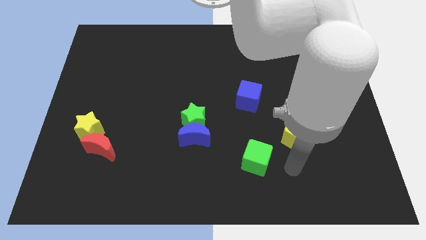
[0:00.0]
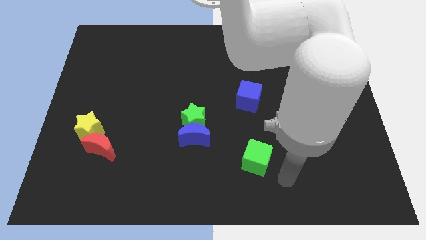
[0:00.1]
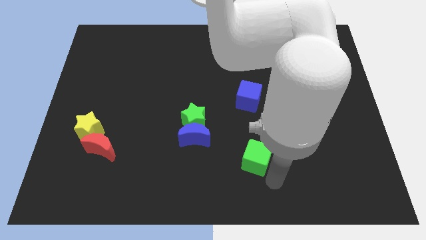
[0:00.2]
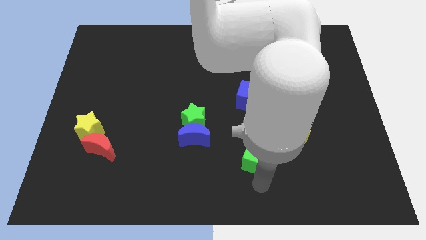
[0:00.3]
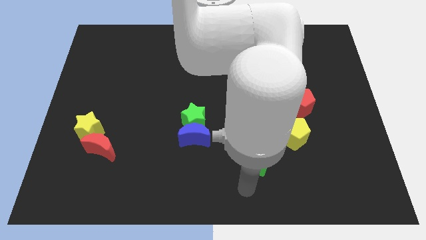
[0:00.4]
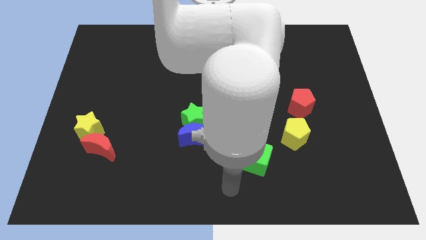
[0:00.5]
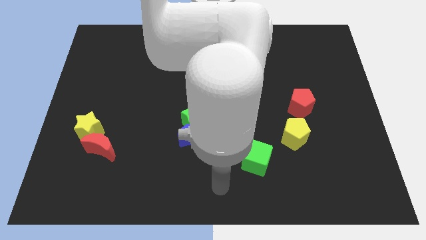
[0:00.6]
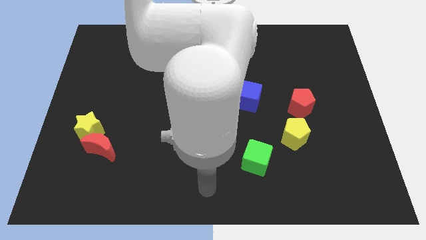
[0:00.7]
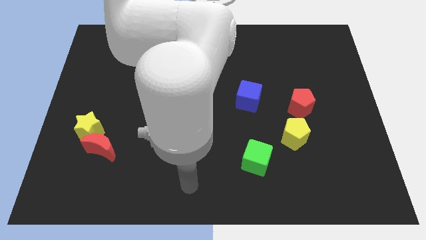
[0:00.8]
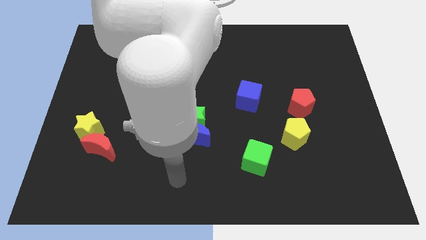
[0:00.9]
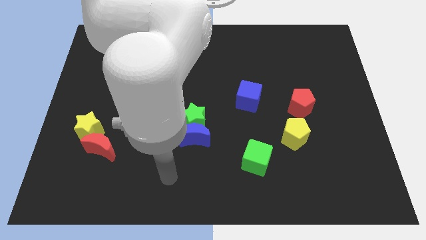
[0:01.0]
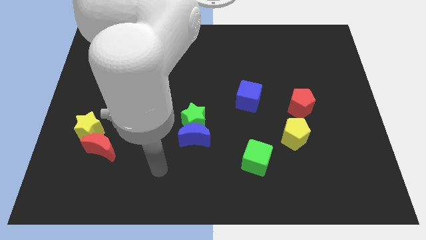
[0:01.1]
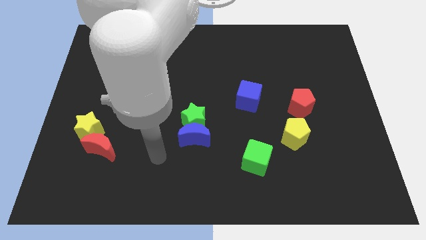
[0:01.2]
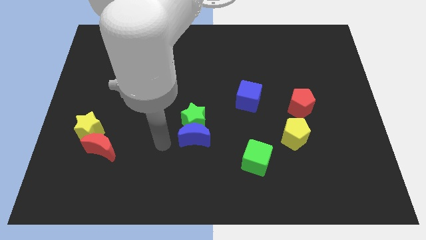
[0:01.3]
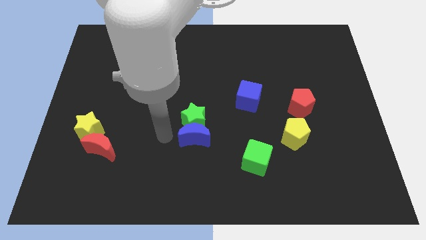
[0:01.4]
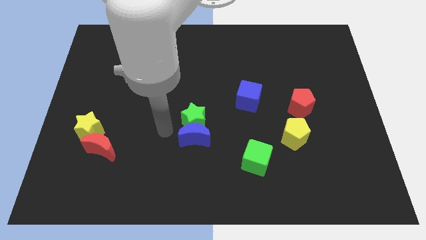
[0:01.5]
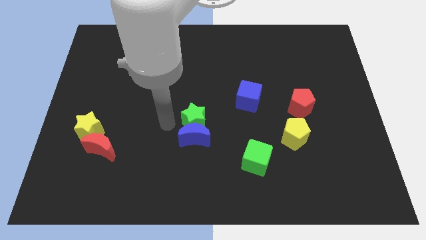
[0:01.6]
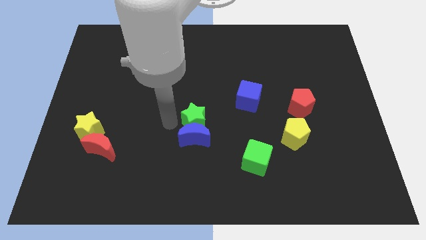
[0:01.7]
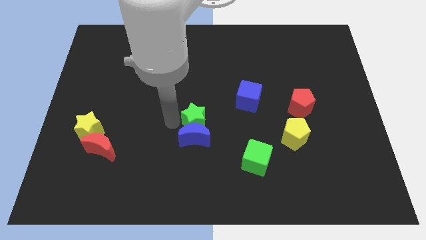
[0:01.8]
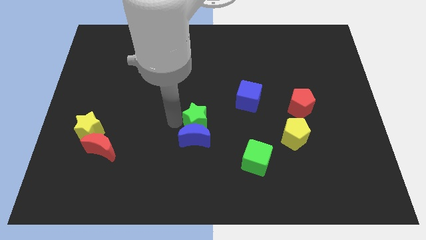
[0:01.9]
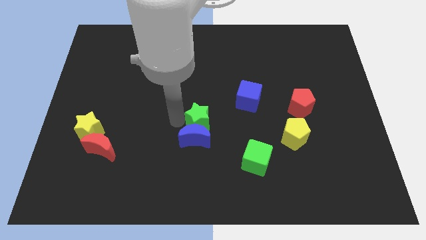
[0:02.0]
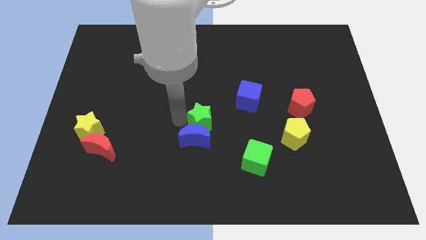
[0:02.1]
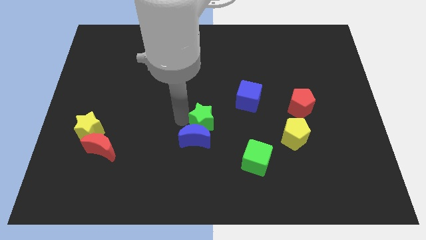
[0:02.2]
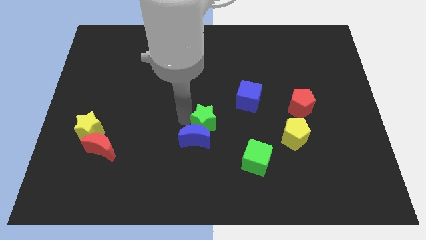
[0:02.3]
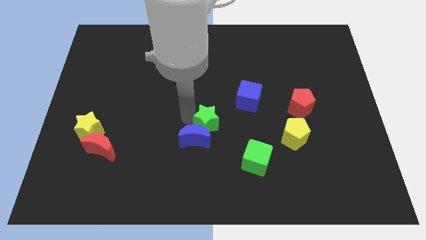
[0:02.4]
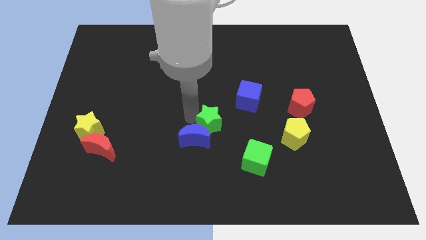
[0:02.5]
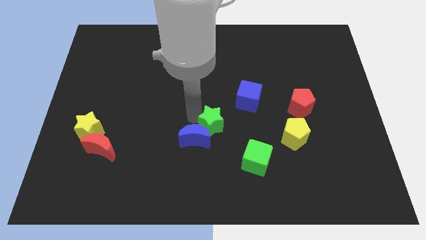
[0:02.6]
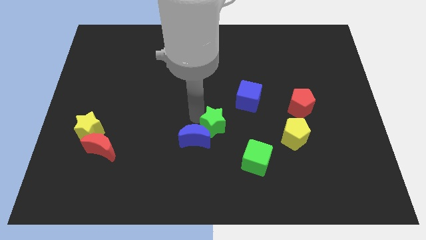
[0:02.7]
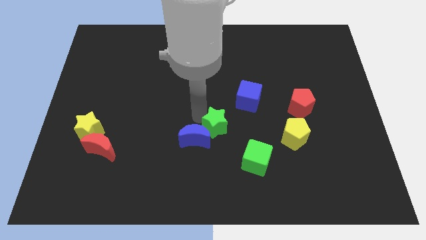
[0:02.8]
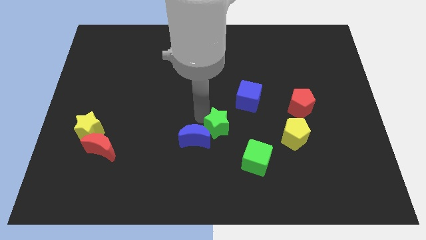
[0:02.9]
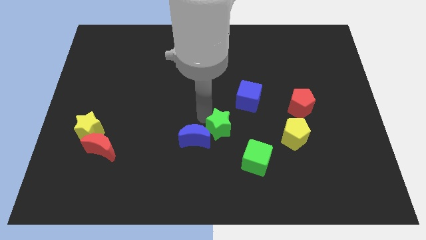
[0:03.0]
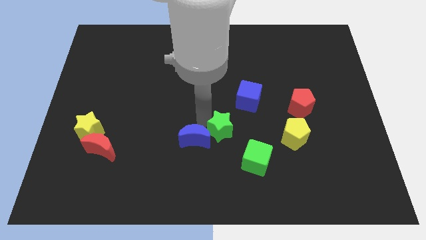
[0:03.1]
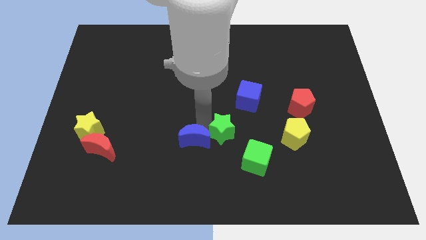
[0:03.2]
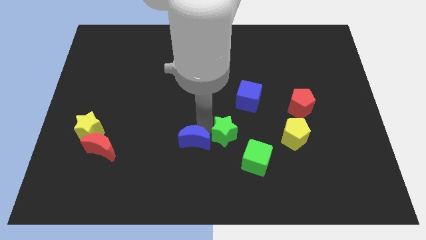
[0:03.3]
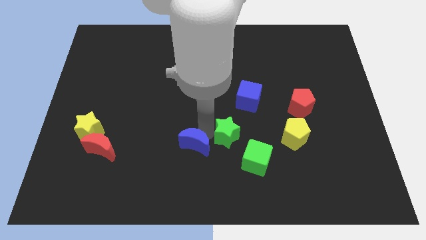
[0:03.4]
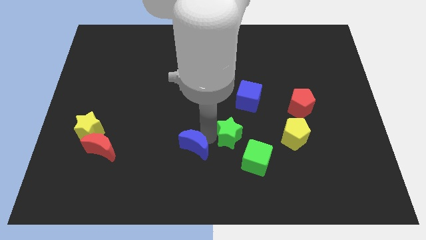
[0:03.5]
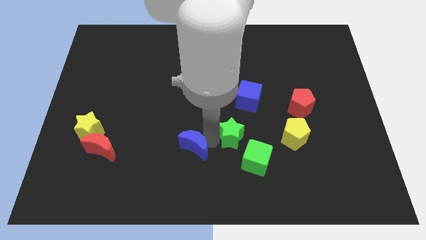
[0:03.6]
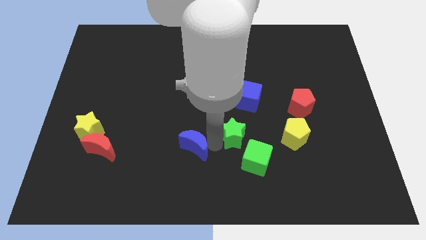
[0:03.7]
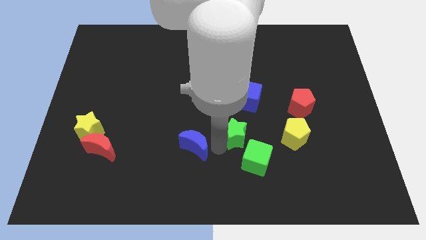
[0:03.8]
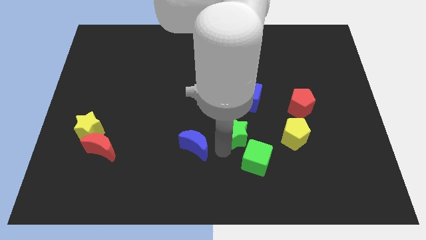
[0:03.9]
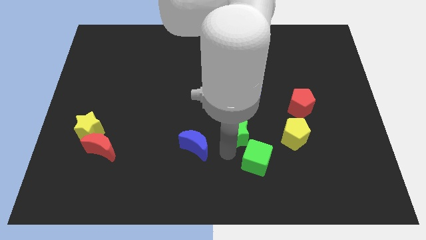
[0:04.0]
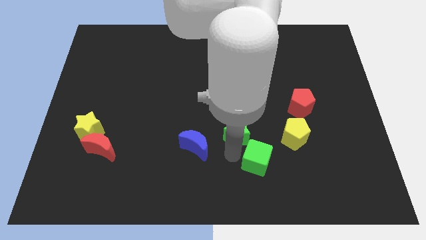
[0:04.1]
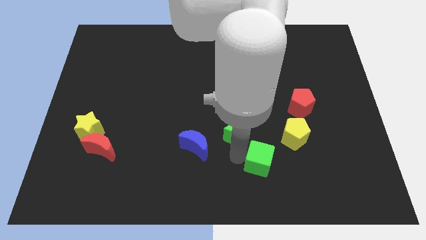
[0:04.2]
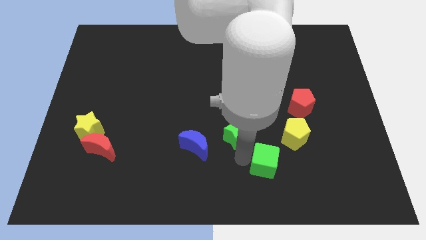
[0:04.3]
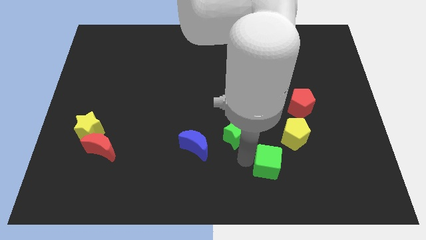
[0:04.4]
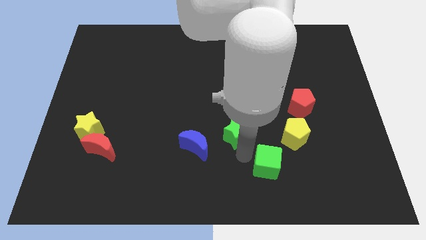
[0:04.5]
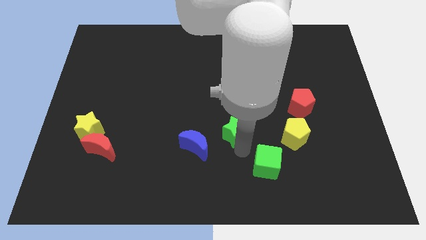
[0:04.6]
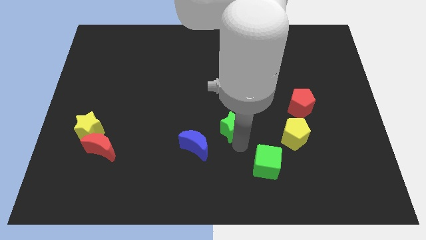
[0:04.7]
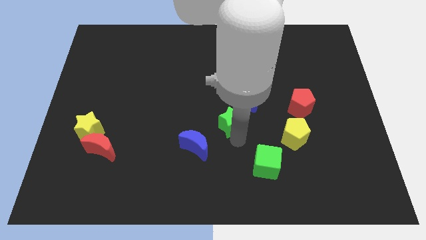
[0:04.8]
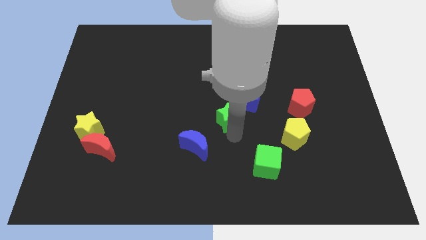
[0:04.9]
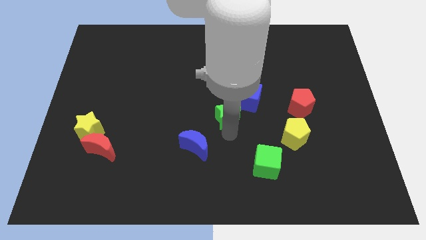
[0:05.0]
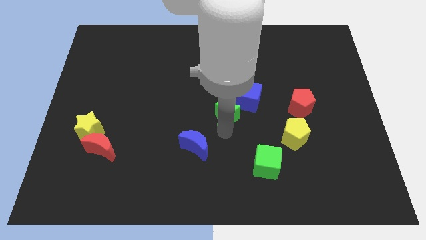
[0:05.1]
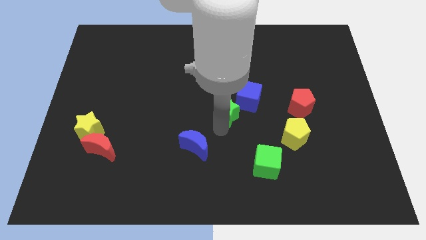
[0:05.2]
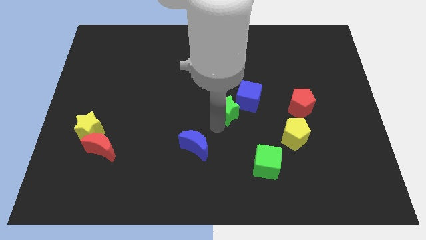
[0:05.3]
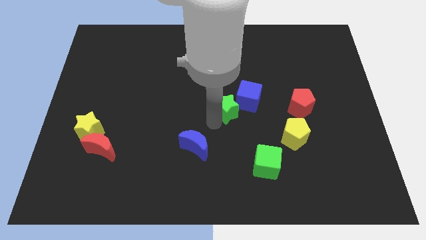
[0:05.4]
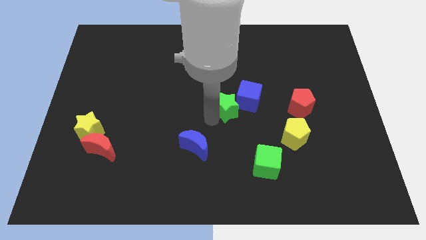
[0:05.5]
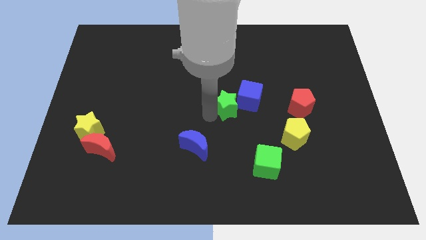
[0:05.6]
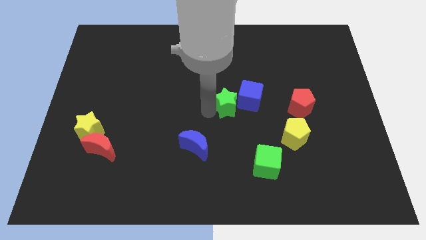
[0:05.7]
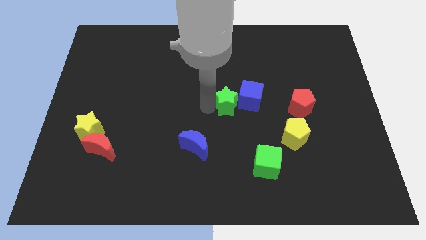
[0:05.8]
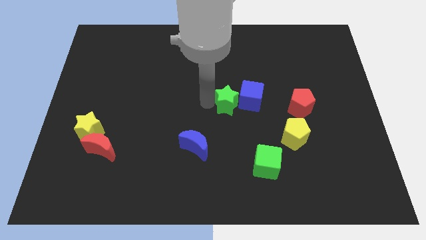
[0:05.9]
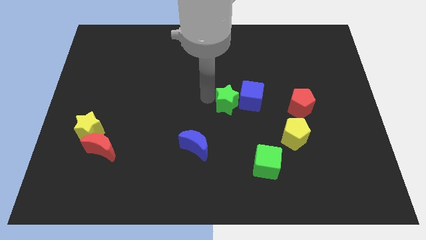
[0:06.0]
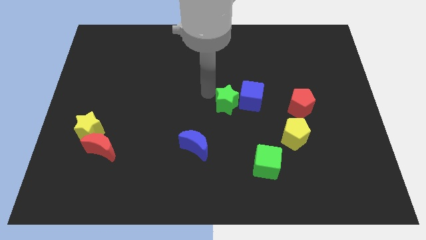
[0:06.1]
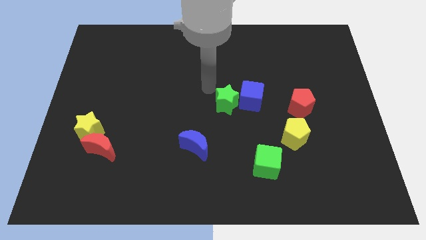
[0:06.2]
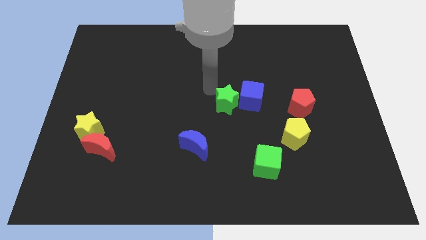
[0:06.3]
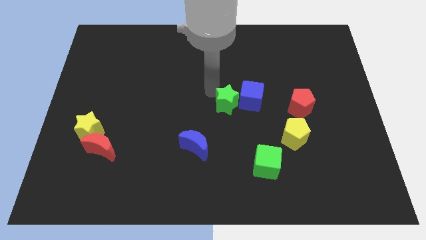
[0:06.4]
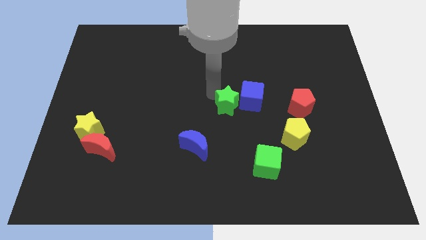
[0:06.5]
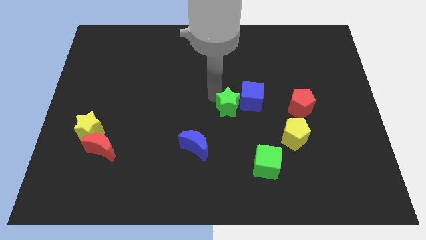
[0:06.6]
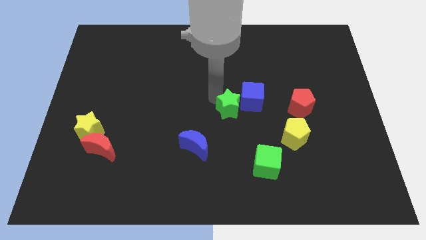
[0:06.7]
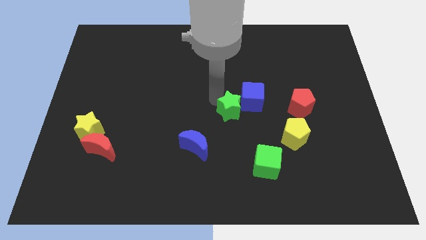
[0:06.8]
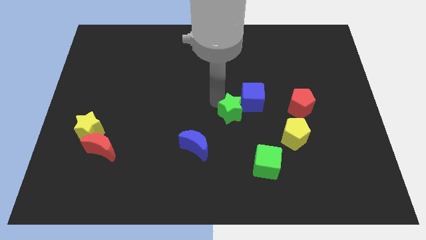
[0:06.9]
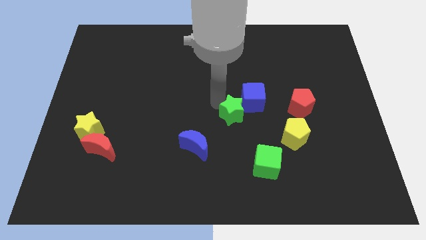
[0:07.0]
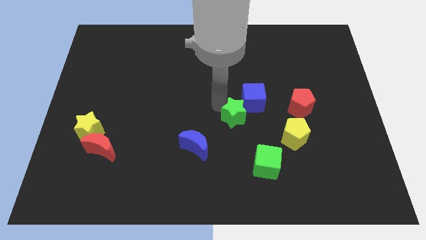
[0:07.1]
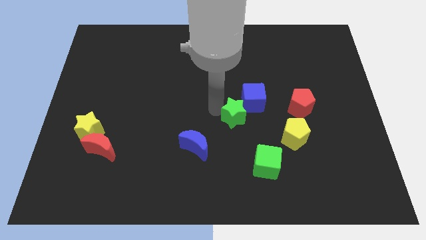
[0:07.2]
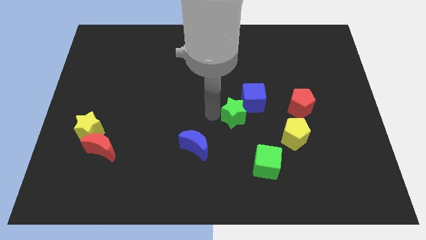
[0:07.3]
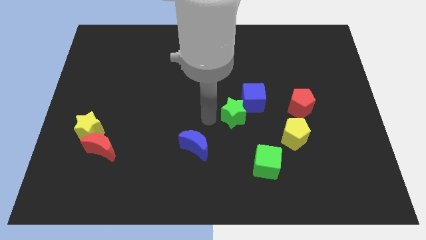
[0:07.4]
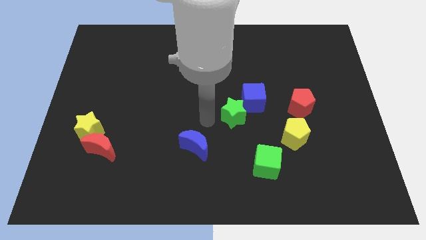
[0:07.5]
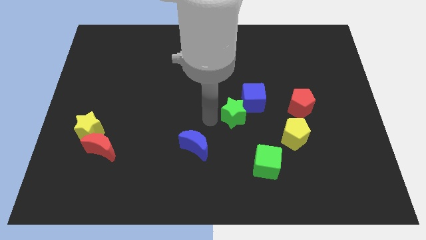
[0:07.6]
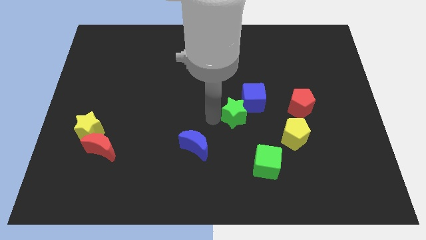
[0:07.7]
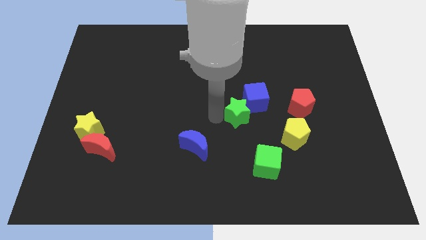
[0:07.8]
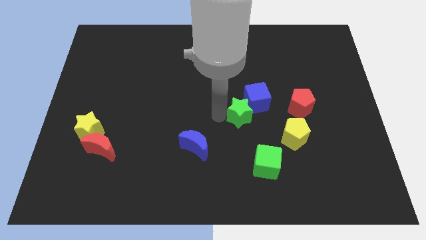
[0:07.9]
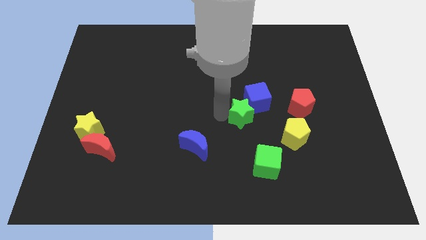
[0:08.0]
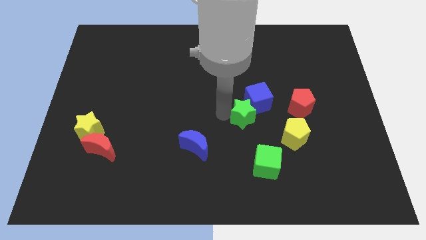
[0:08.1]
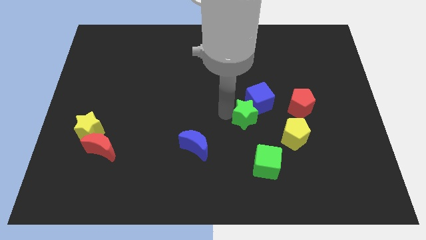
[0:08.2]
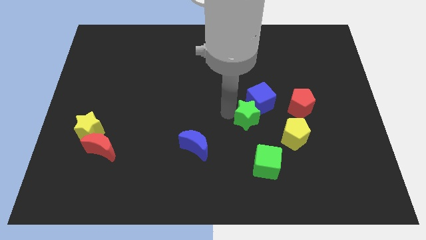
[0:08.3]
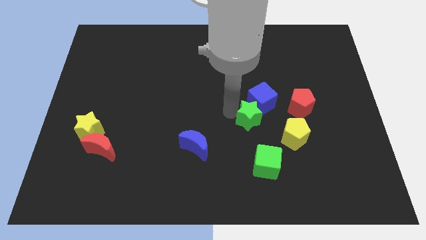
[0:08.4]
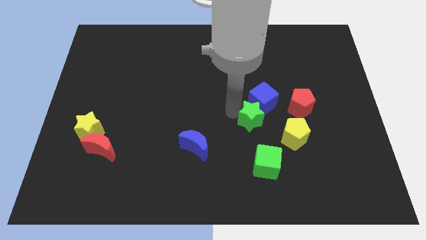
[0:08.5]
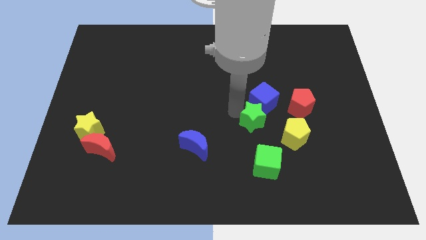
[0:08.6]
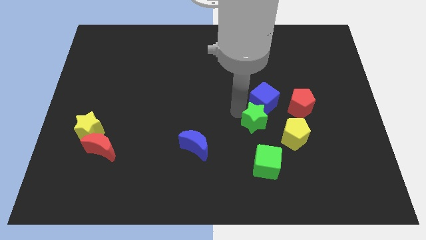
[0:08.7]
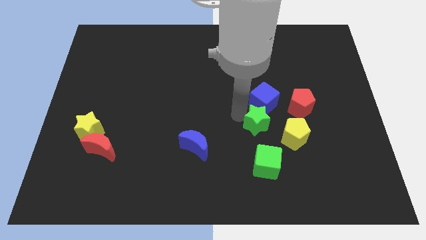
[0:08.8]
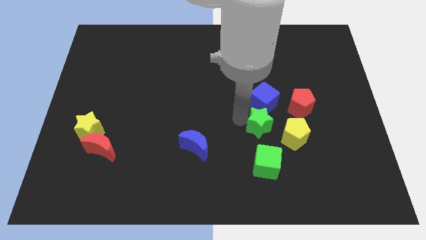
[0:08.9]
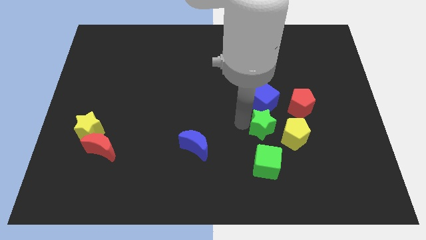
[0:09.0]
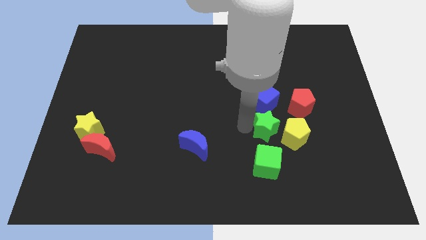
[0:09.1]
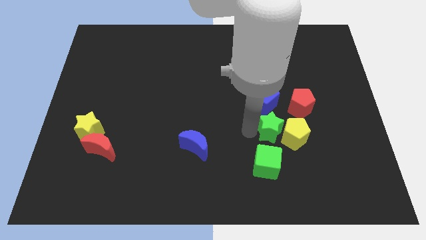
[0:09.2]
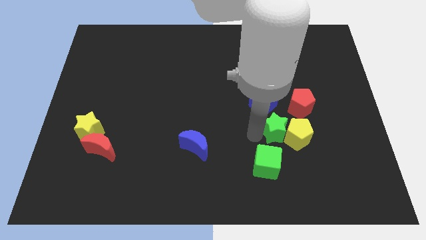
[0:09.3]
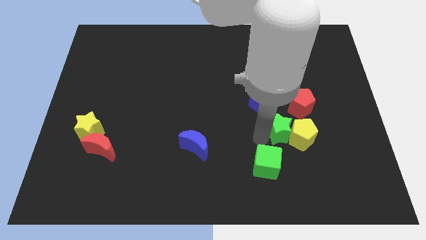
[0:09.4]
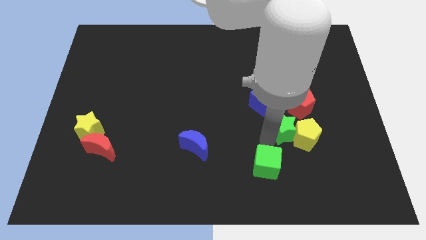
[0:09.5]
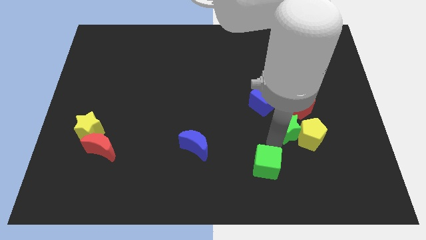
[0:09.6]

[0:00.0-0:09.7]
slide the green star to the right
